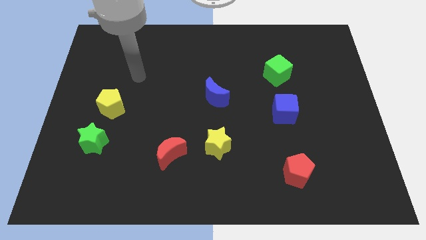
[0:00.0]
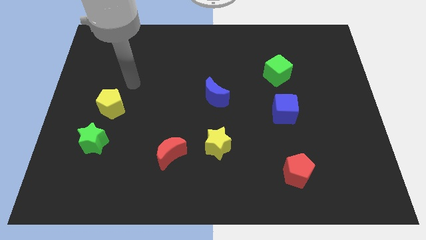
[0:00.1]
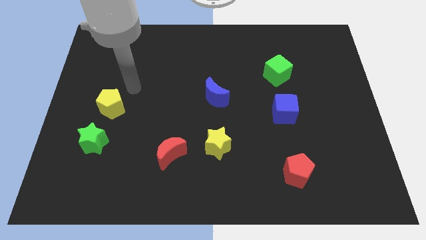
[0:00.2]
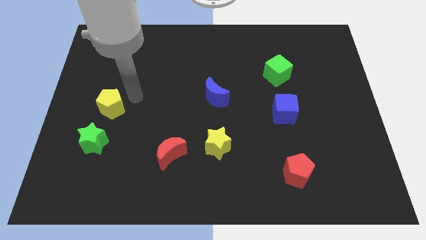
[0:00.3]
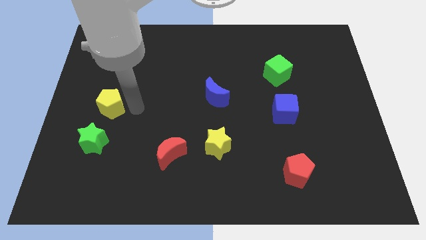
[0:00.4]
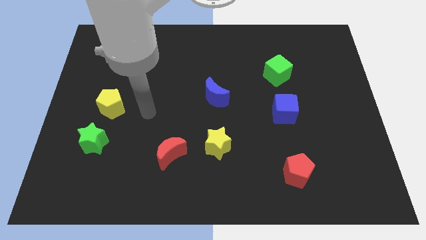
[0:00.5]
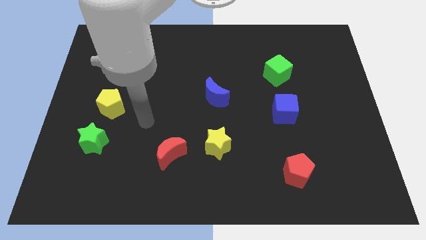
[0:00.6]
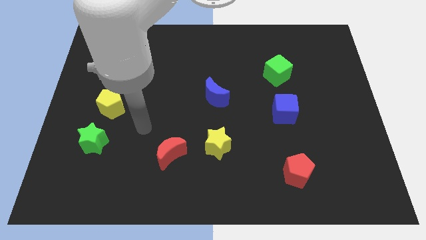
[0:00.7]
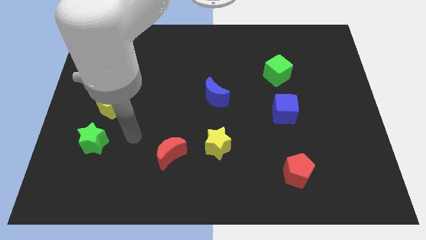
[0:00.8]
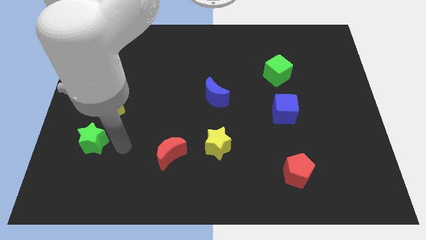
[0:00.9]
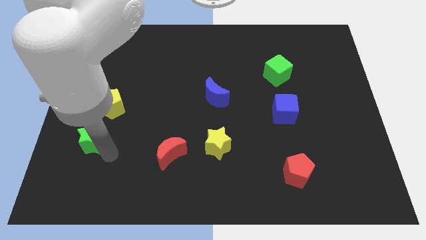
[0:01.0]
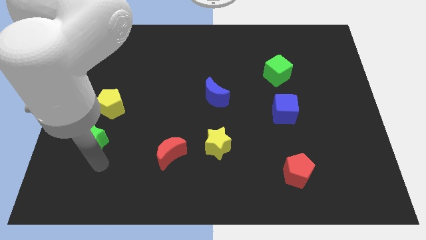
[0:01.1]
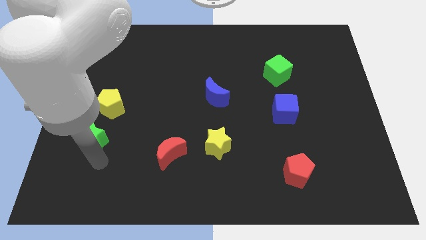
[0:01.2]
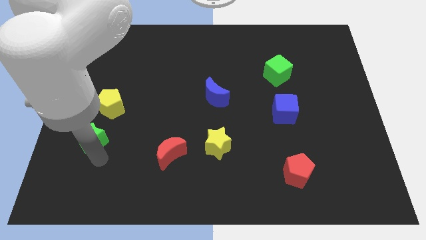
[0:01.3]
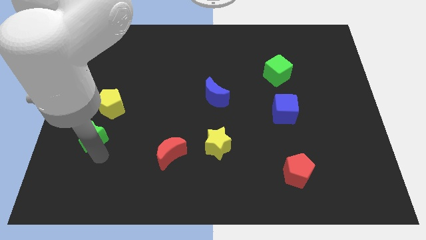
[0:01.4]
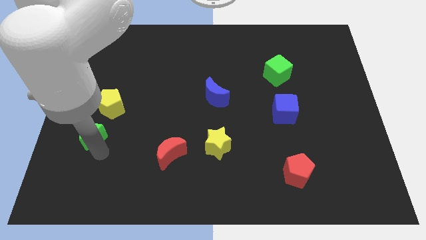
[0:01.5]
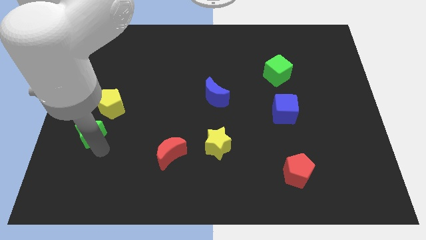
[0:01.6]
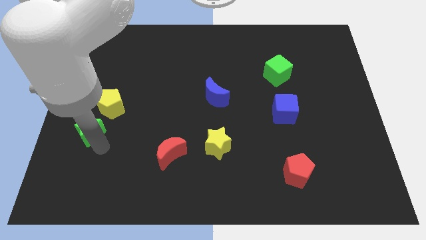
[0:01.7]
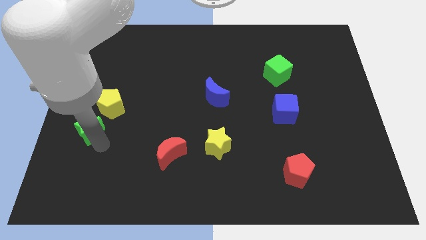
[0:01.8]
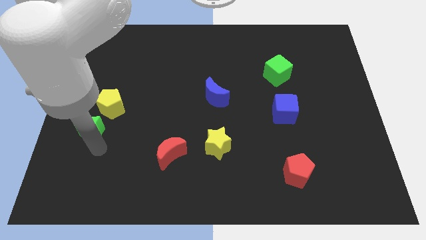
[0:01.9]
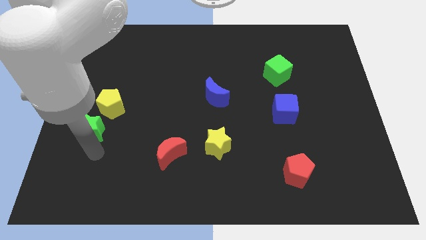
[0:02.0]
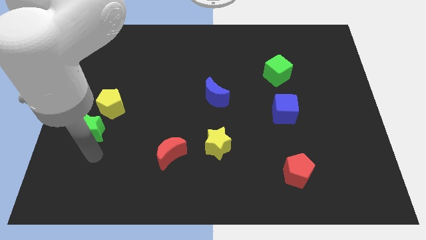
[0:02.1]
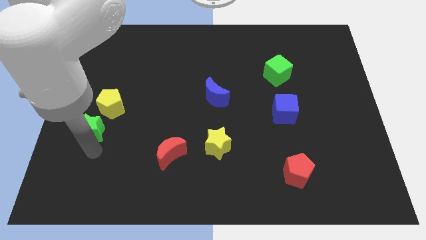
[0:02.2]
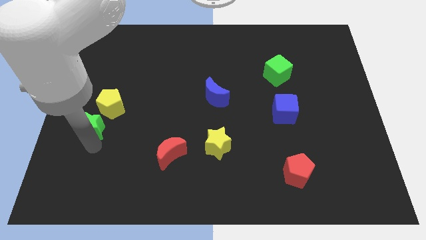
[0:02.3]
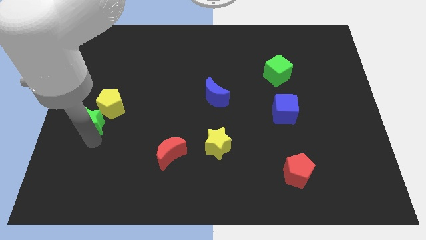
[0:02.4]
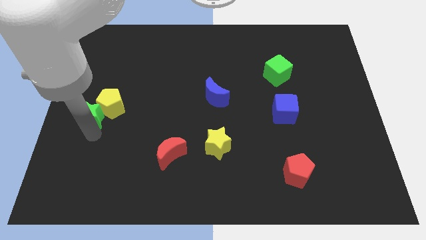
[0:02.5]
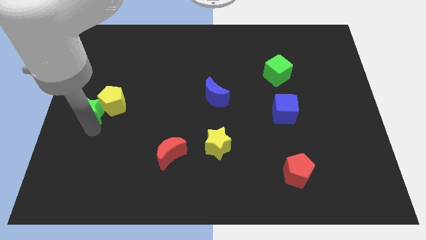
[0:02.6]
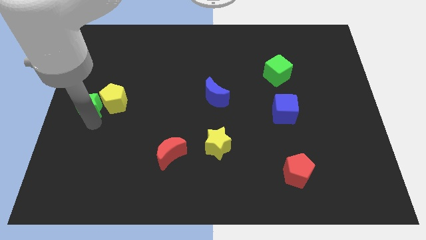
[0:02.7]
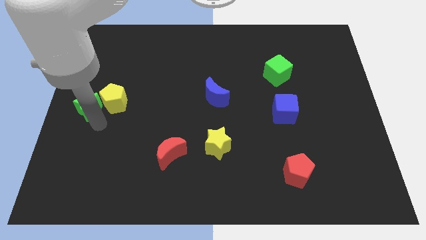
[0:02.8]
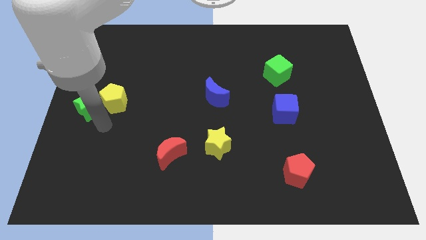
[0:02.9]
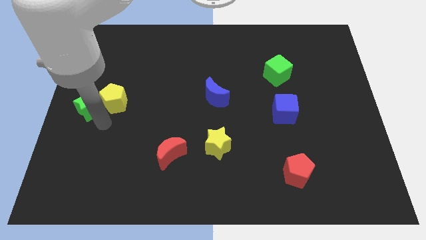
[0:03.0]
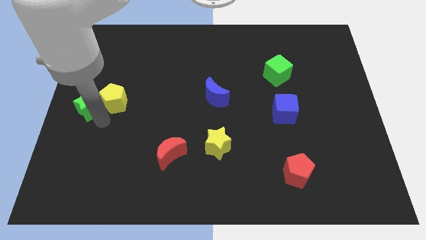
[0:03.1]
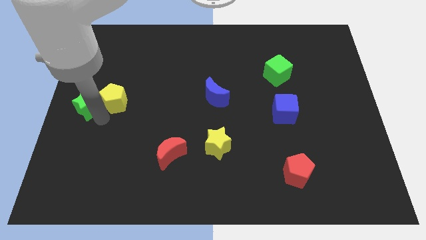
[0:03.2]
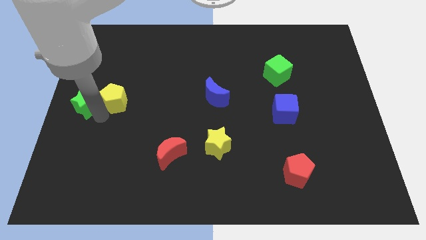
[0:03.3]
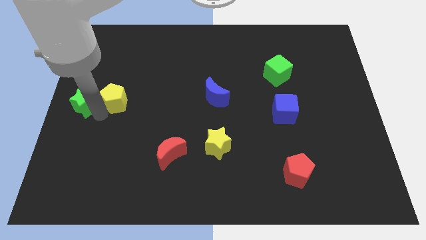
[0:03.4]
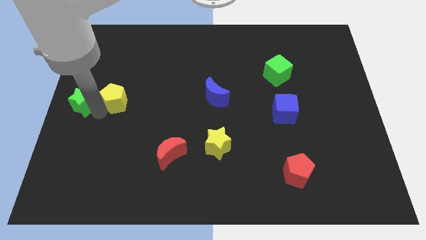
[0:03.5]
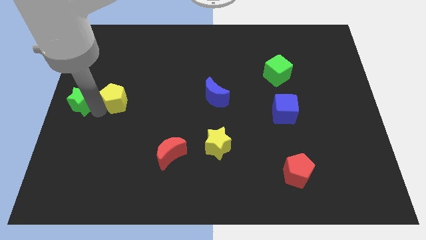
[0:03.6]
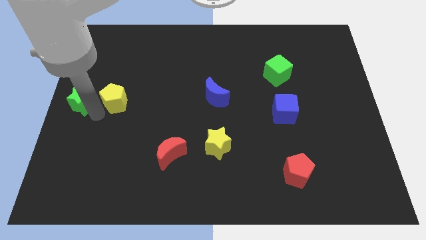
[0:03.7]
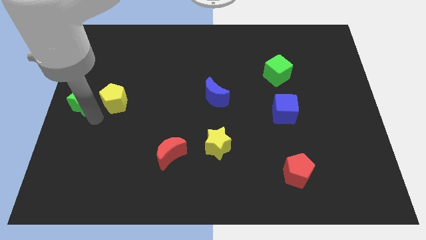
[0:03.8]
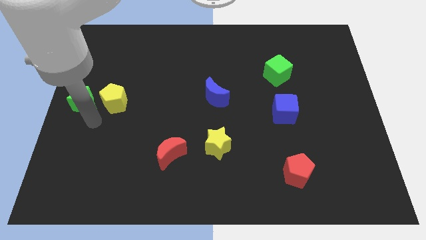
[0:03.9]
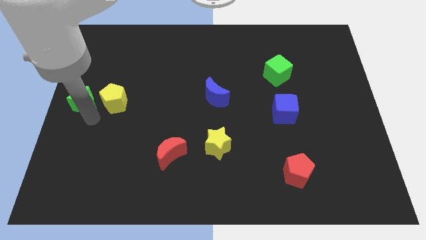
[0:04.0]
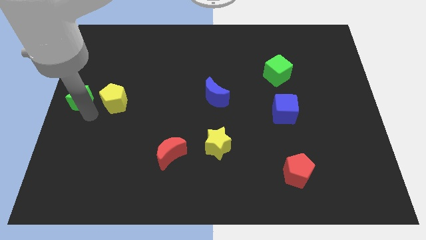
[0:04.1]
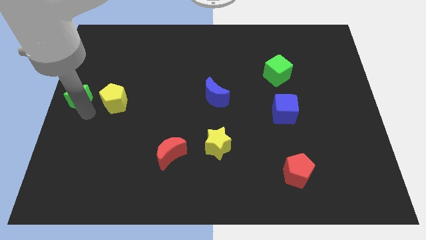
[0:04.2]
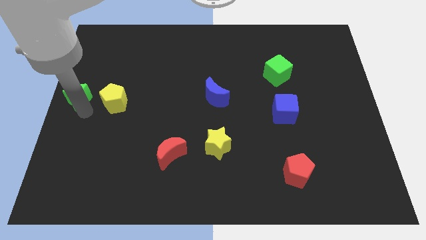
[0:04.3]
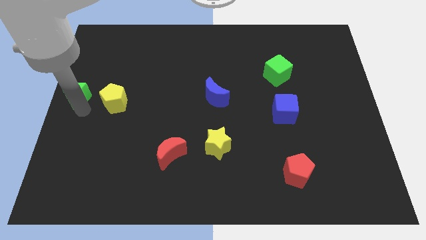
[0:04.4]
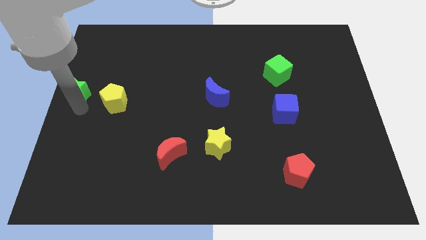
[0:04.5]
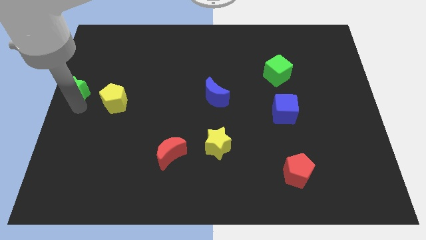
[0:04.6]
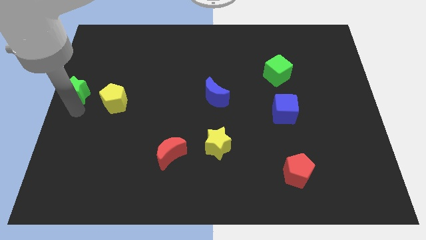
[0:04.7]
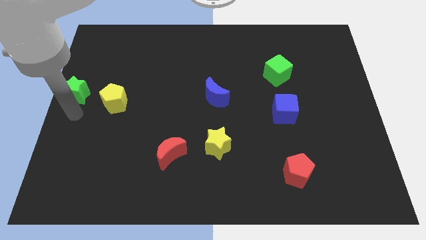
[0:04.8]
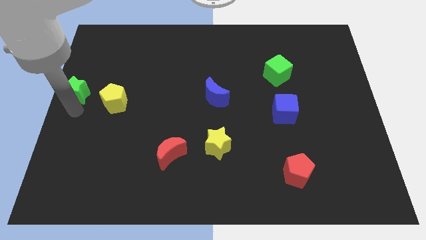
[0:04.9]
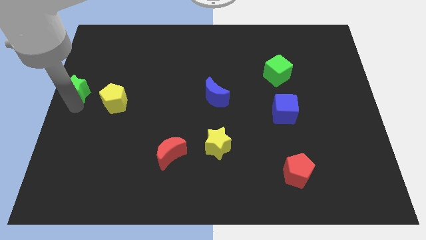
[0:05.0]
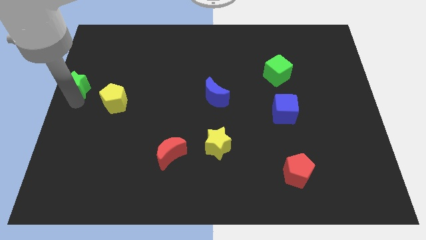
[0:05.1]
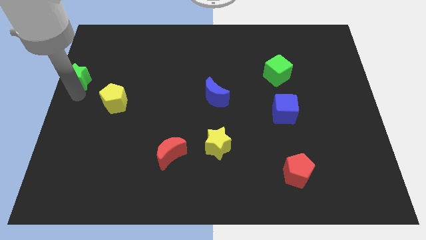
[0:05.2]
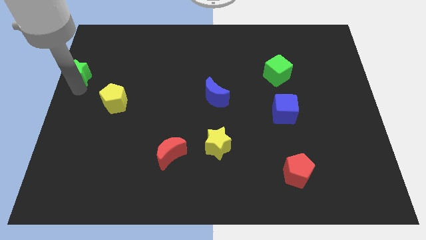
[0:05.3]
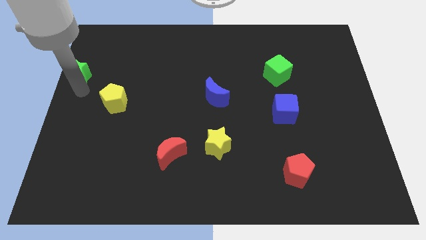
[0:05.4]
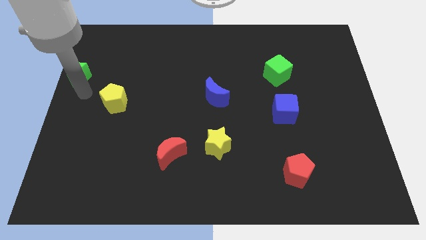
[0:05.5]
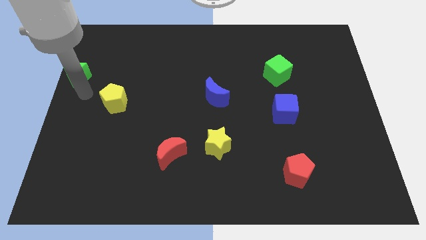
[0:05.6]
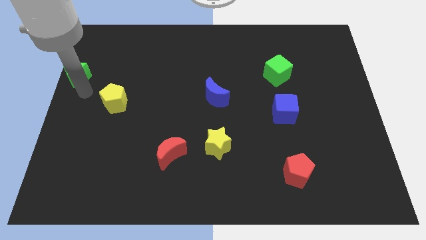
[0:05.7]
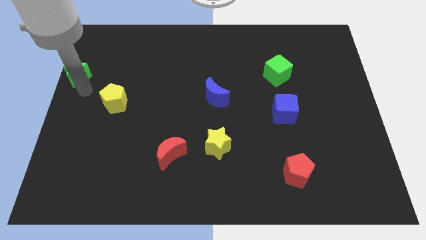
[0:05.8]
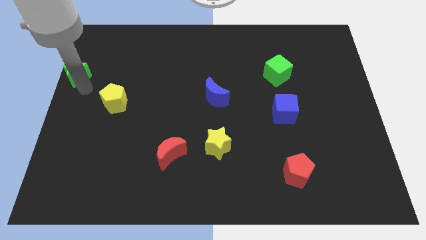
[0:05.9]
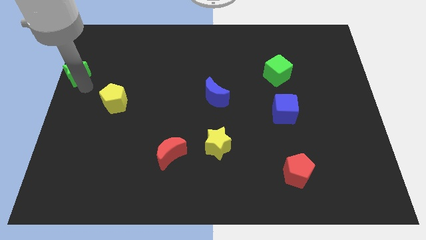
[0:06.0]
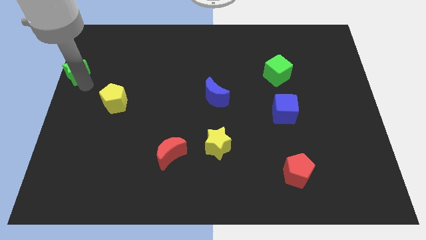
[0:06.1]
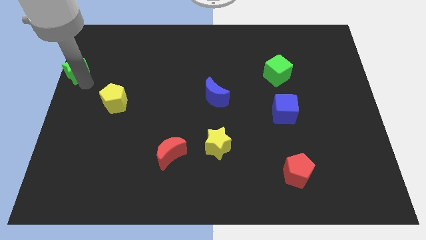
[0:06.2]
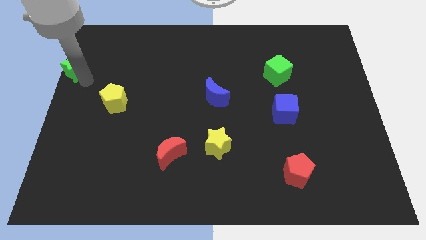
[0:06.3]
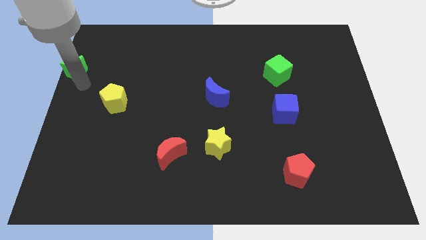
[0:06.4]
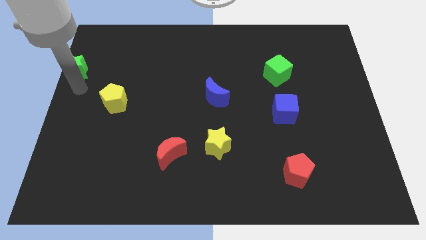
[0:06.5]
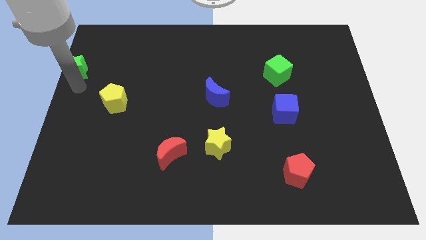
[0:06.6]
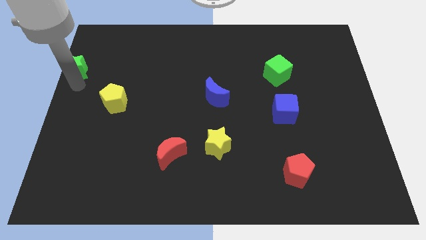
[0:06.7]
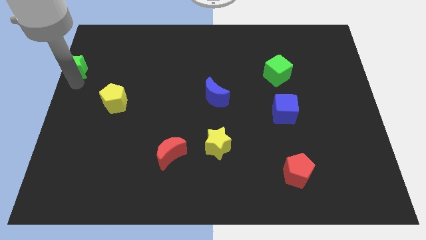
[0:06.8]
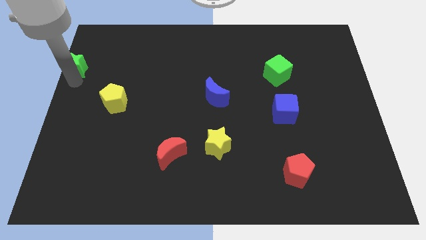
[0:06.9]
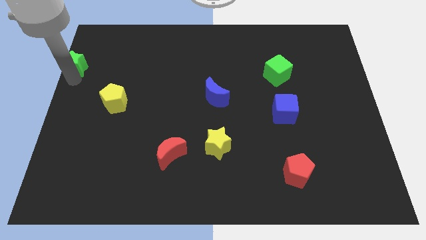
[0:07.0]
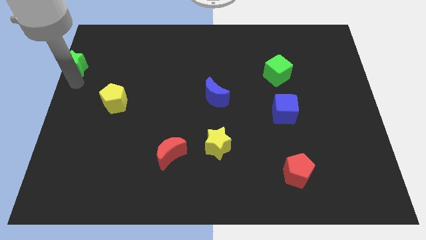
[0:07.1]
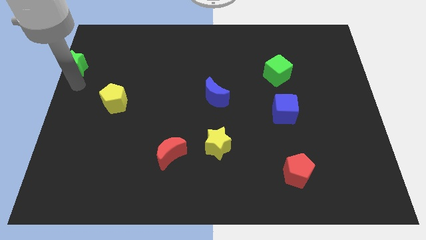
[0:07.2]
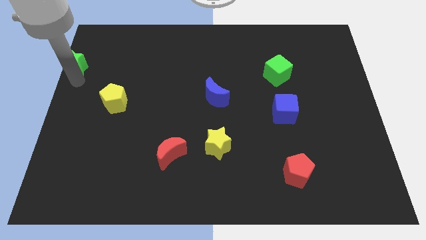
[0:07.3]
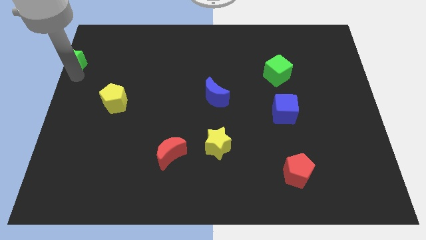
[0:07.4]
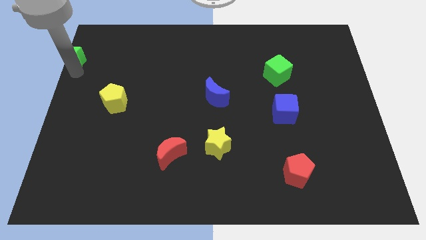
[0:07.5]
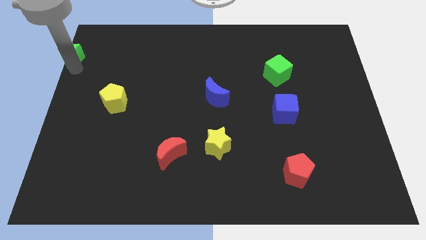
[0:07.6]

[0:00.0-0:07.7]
put the green star to the upper left corner
